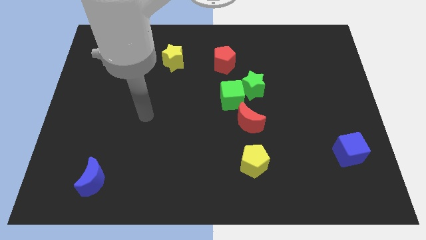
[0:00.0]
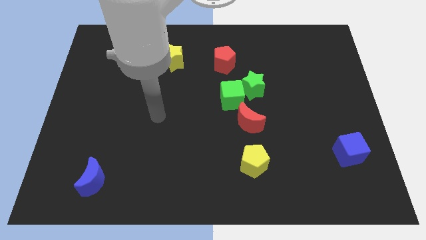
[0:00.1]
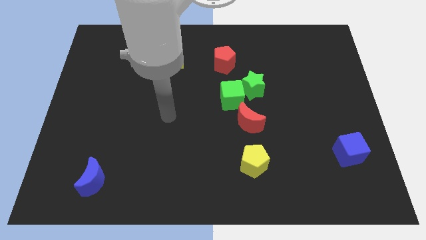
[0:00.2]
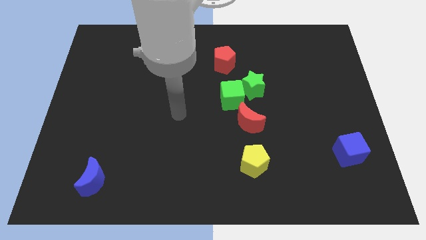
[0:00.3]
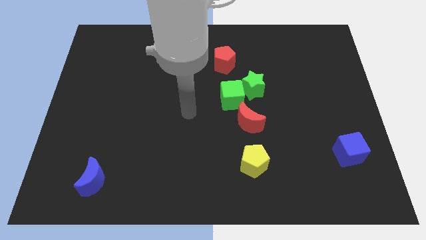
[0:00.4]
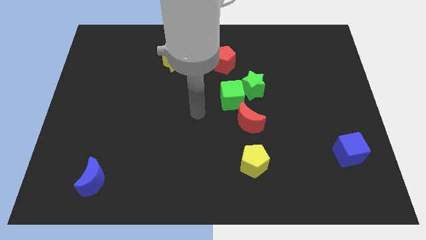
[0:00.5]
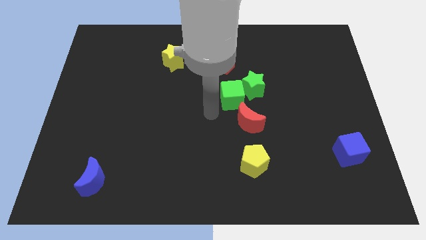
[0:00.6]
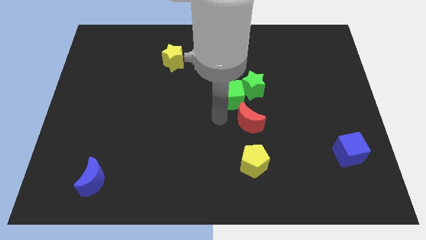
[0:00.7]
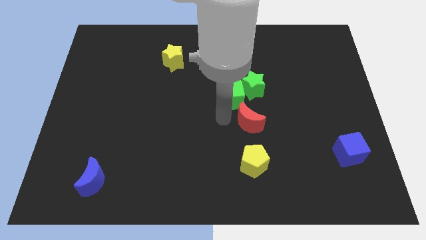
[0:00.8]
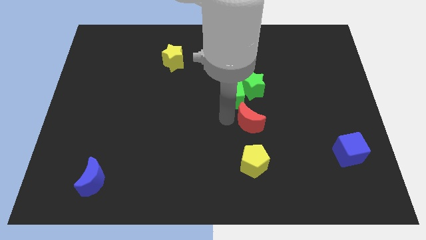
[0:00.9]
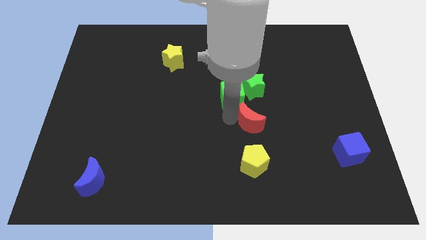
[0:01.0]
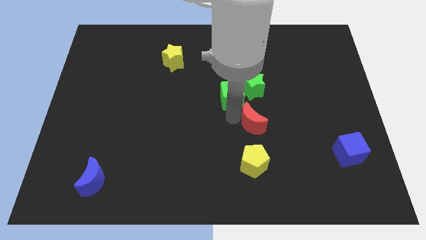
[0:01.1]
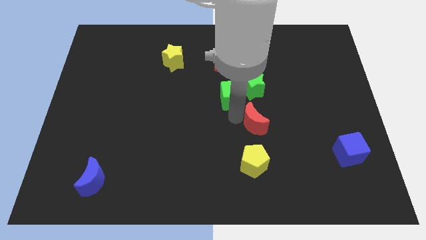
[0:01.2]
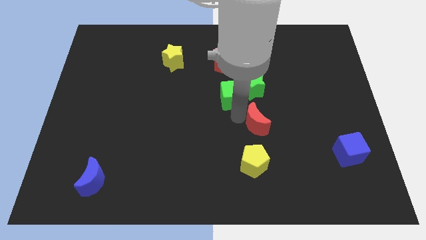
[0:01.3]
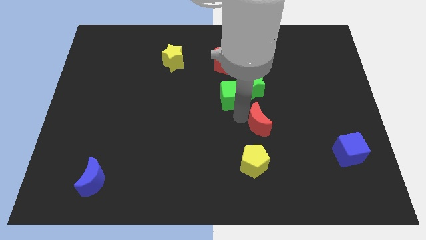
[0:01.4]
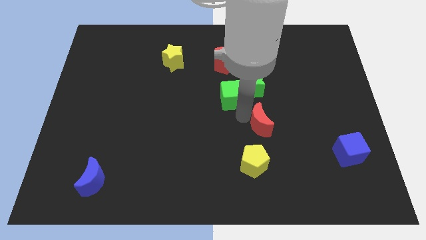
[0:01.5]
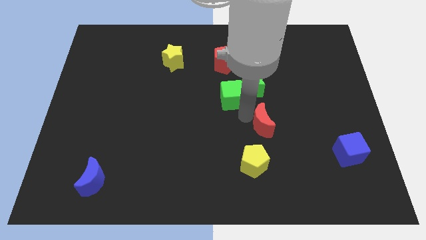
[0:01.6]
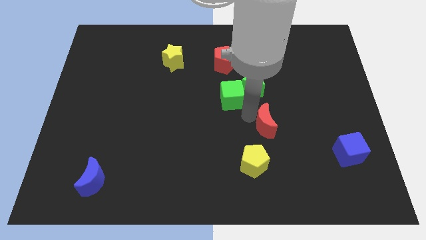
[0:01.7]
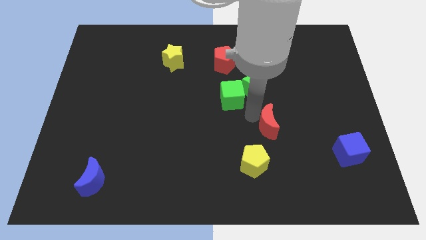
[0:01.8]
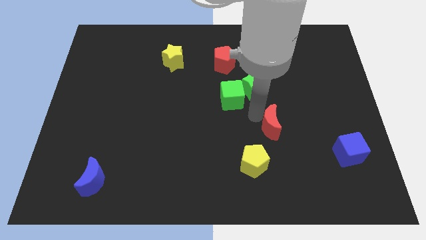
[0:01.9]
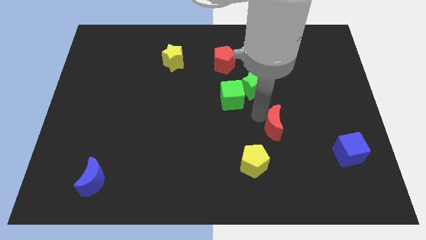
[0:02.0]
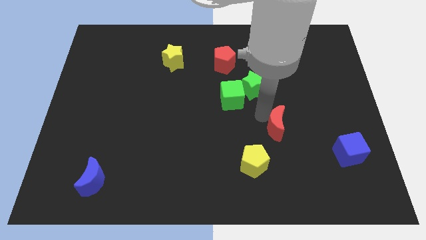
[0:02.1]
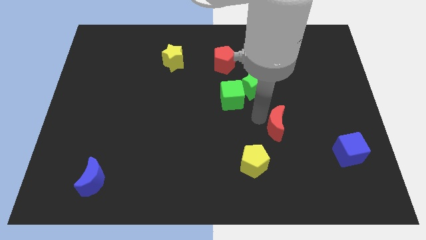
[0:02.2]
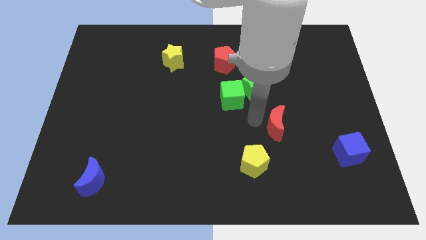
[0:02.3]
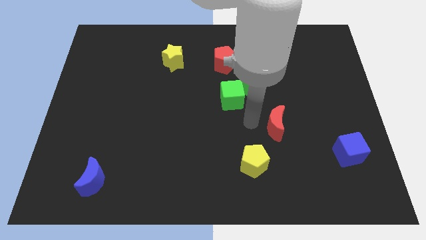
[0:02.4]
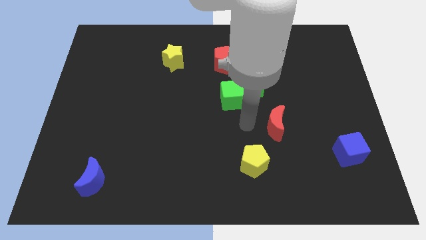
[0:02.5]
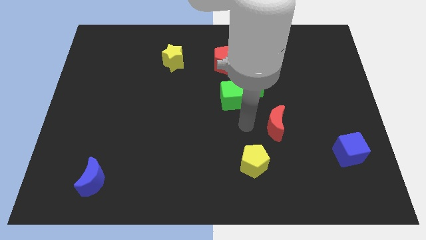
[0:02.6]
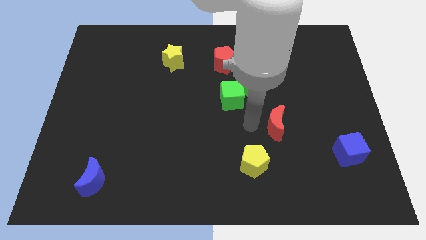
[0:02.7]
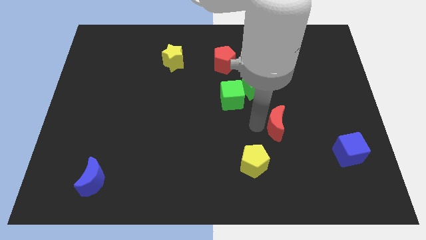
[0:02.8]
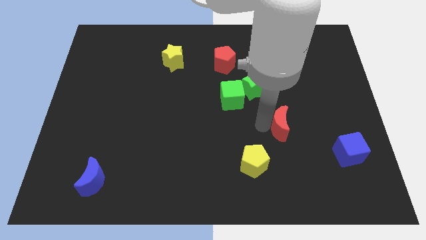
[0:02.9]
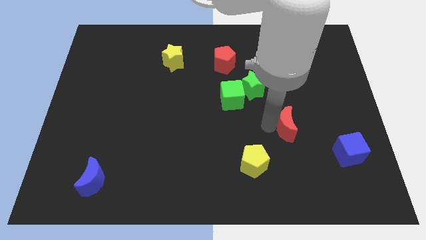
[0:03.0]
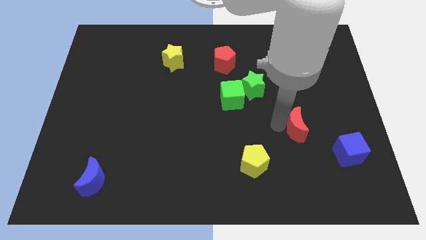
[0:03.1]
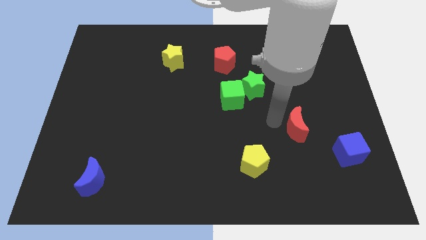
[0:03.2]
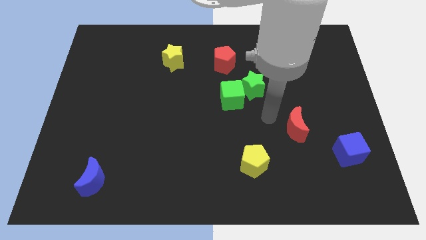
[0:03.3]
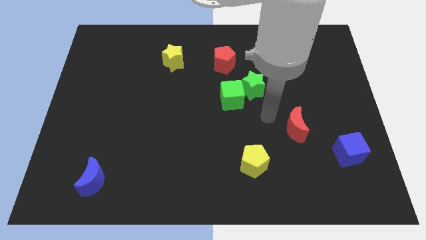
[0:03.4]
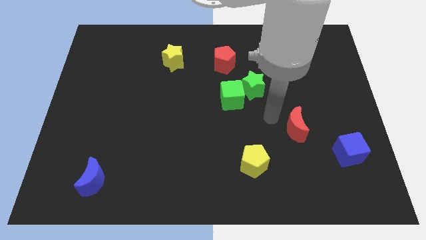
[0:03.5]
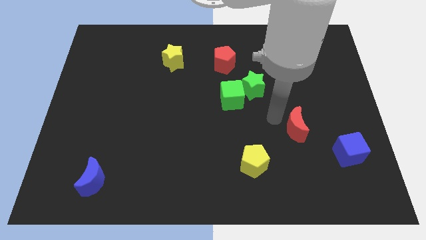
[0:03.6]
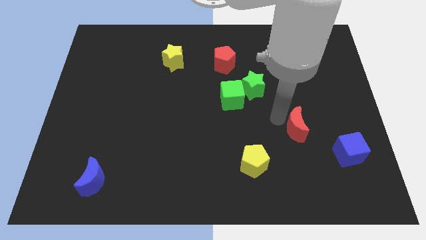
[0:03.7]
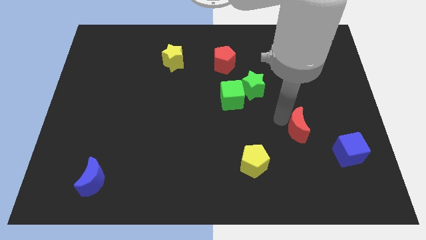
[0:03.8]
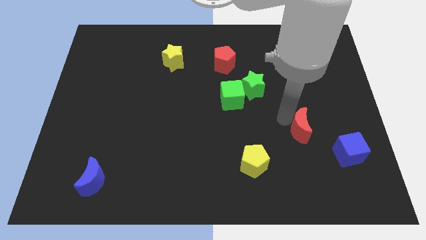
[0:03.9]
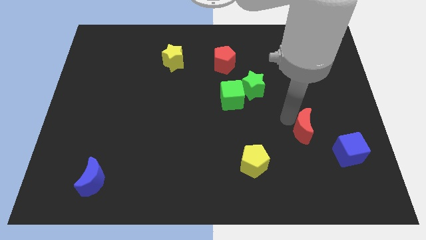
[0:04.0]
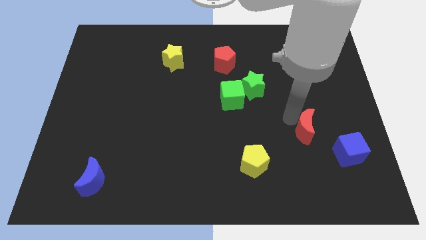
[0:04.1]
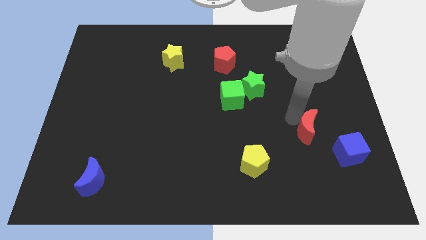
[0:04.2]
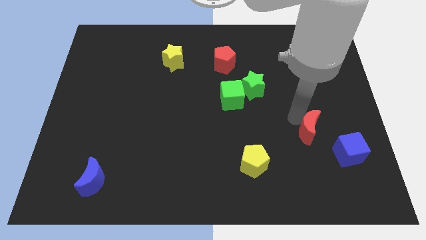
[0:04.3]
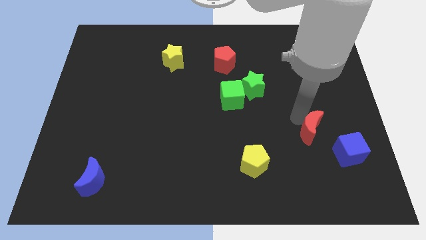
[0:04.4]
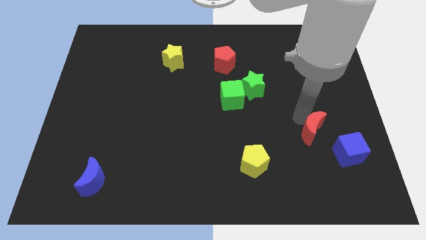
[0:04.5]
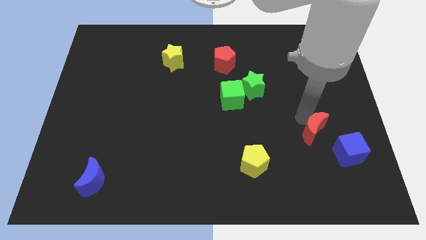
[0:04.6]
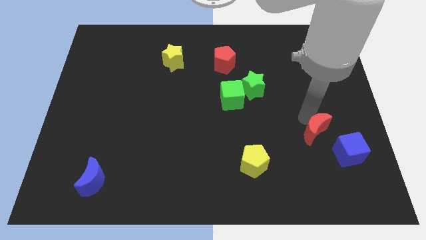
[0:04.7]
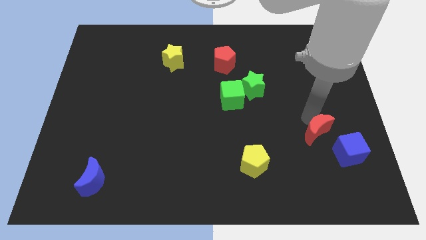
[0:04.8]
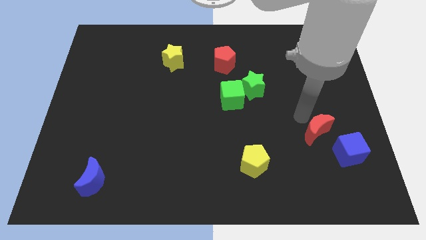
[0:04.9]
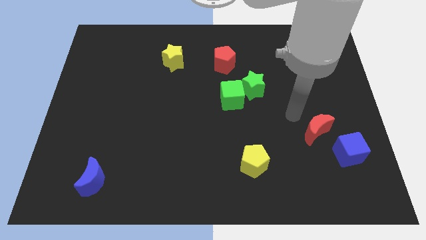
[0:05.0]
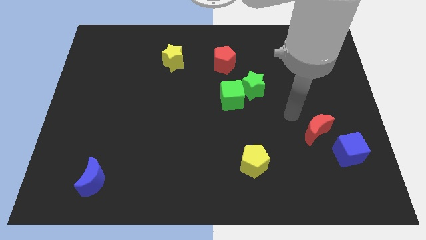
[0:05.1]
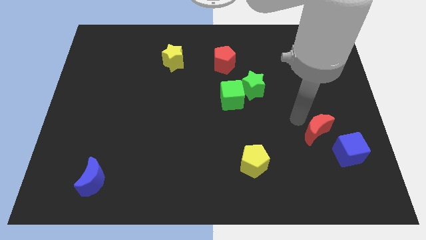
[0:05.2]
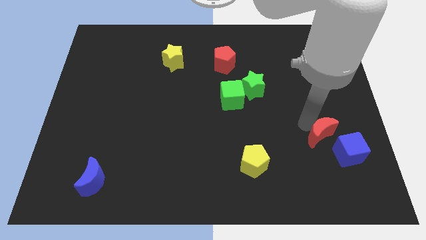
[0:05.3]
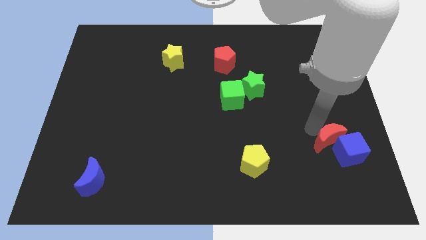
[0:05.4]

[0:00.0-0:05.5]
slide the red moon towards the blue cube

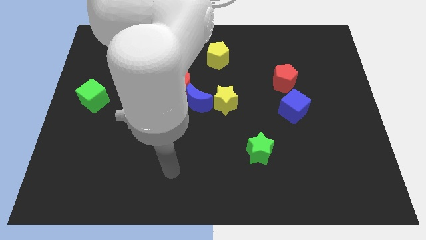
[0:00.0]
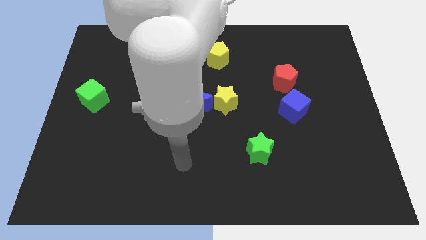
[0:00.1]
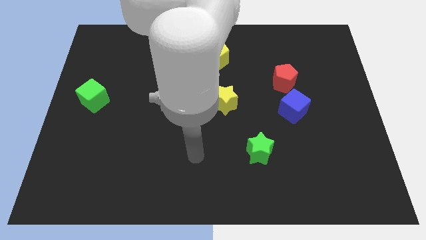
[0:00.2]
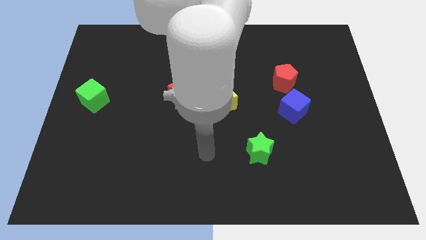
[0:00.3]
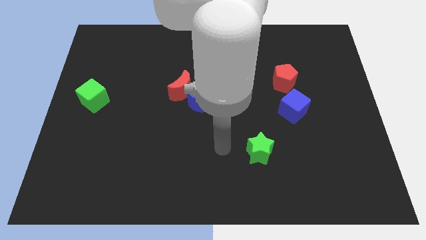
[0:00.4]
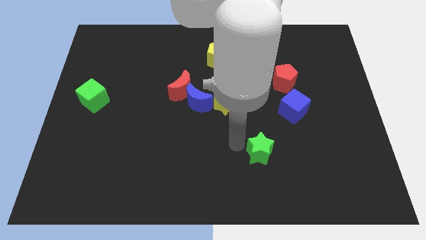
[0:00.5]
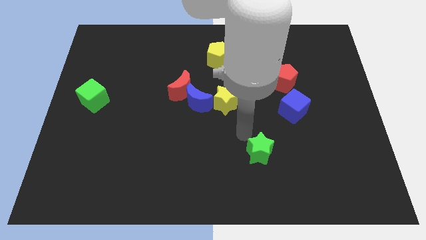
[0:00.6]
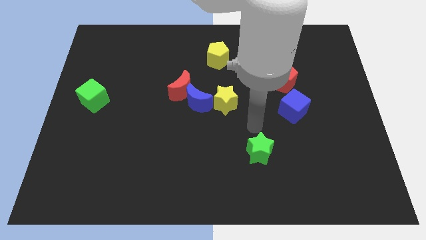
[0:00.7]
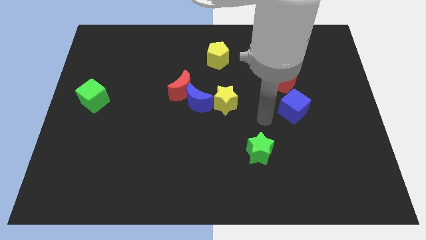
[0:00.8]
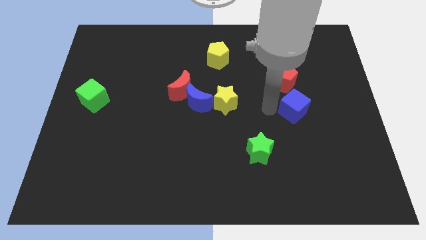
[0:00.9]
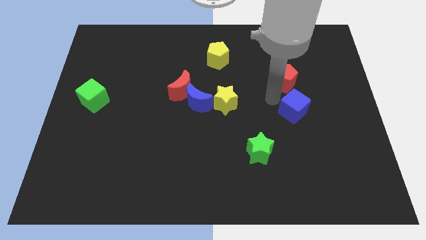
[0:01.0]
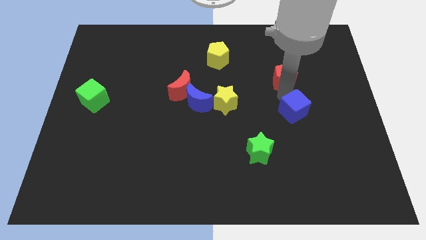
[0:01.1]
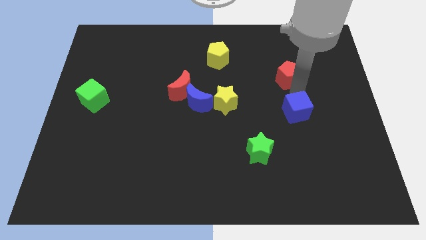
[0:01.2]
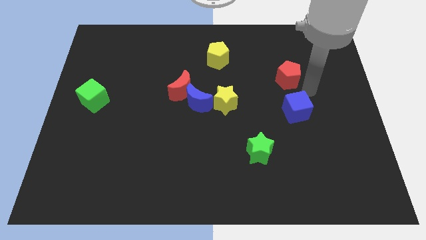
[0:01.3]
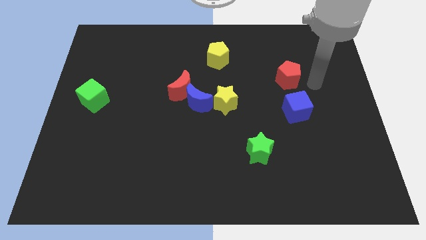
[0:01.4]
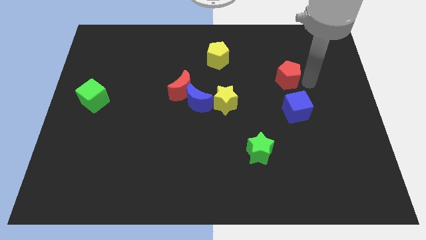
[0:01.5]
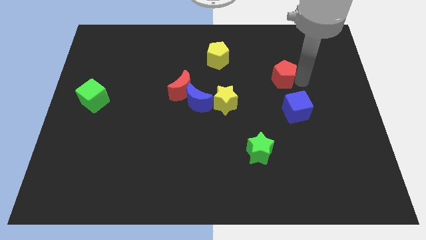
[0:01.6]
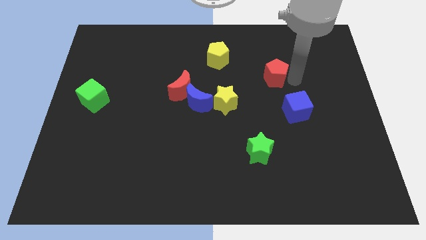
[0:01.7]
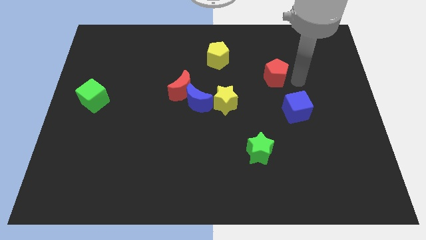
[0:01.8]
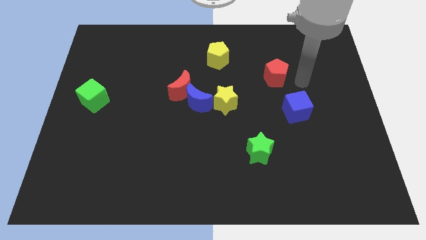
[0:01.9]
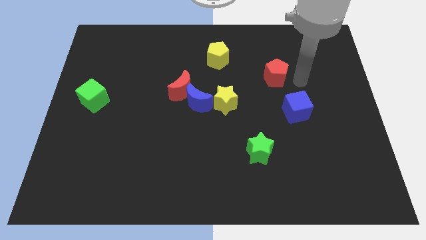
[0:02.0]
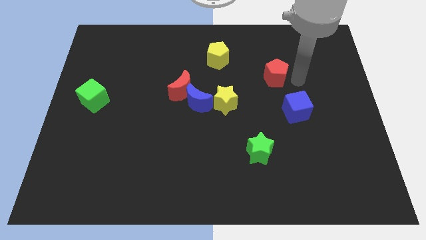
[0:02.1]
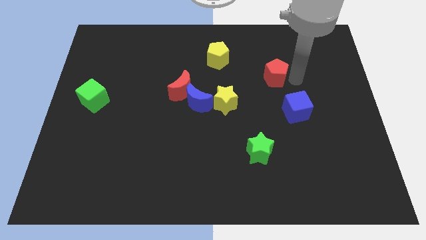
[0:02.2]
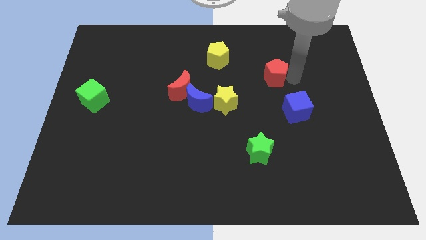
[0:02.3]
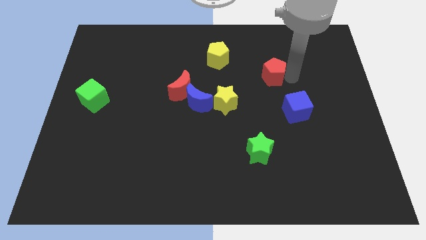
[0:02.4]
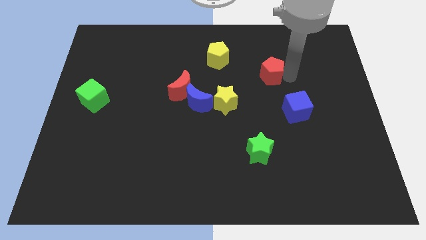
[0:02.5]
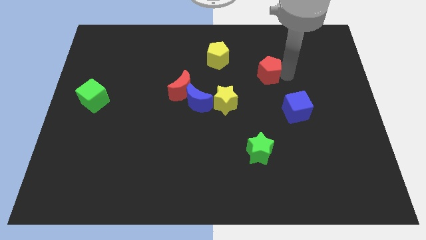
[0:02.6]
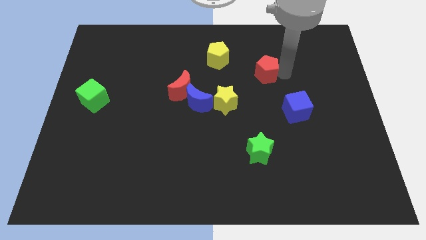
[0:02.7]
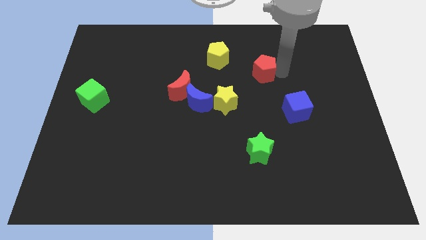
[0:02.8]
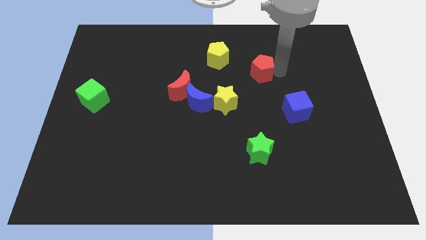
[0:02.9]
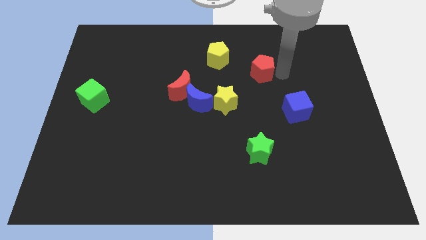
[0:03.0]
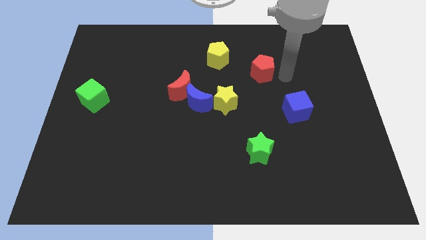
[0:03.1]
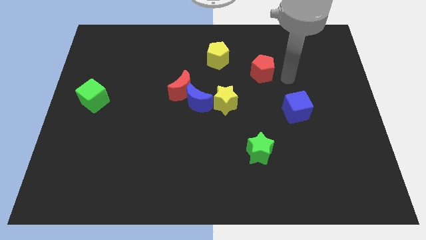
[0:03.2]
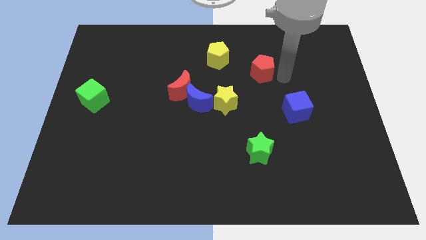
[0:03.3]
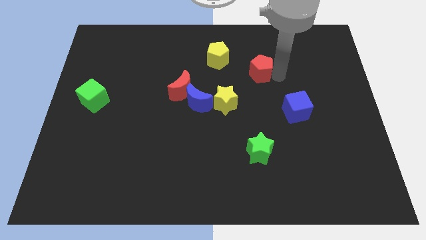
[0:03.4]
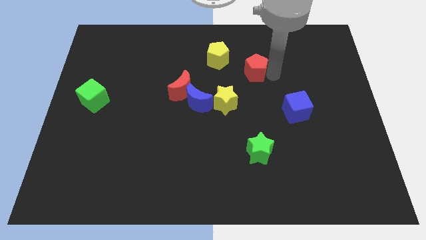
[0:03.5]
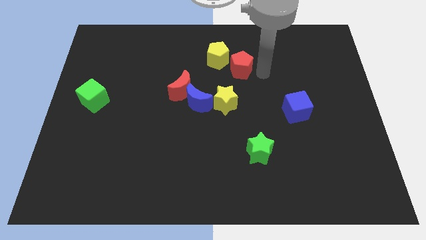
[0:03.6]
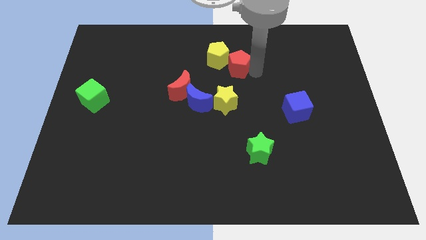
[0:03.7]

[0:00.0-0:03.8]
put the red pentagon towards the yellow pentagon
